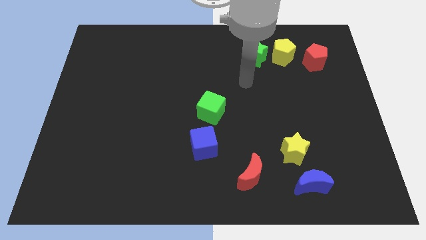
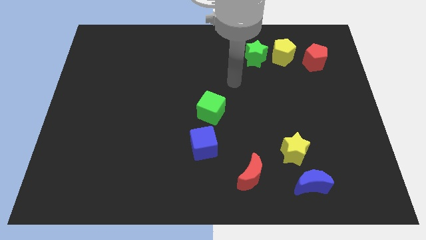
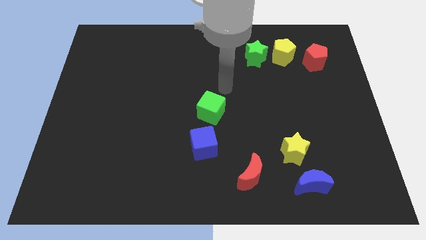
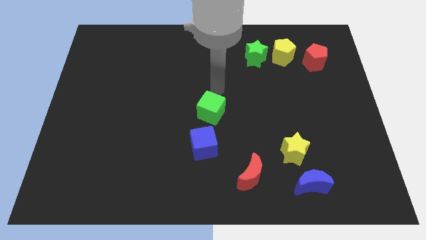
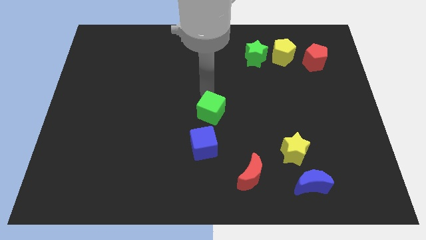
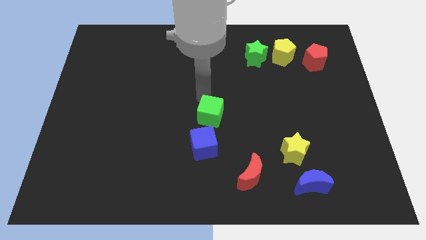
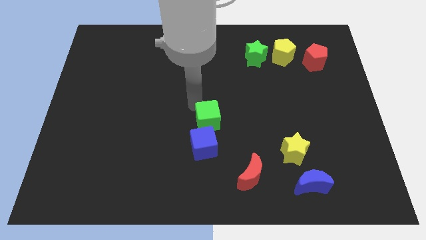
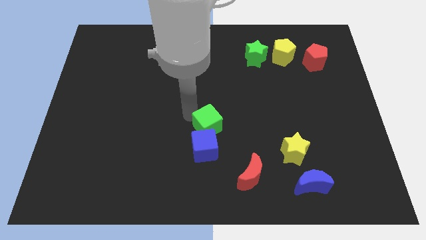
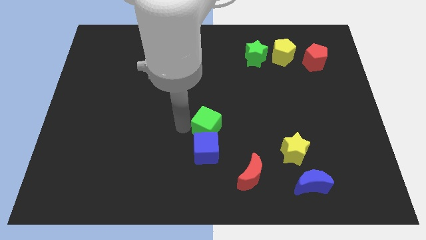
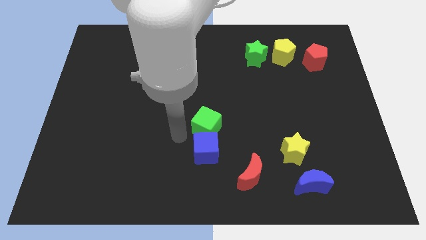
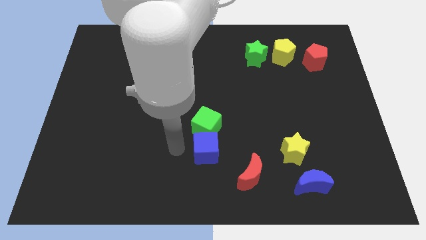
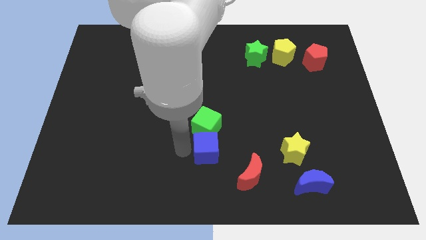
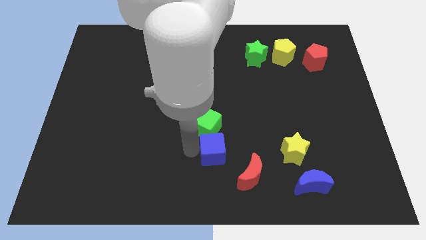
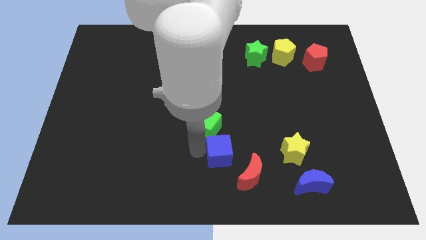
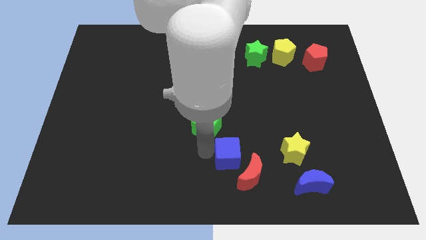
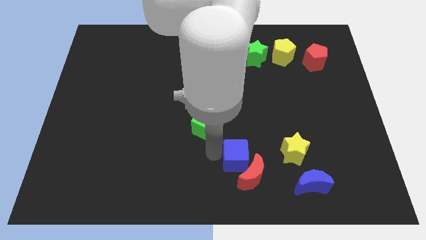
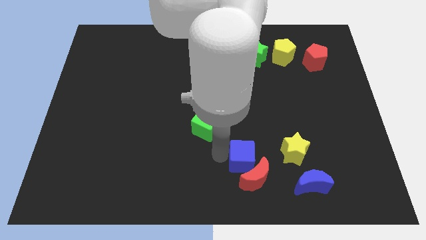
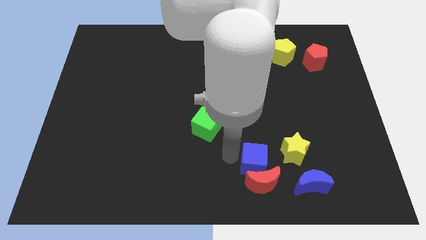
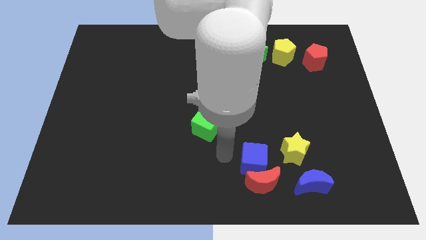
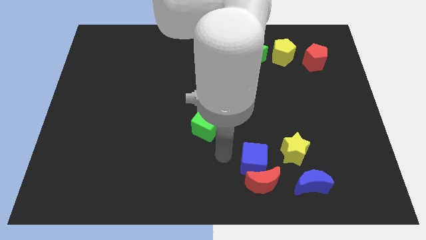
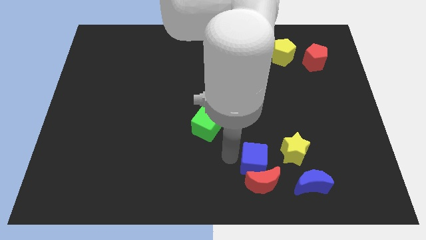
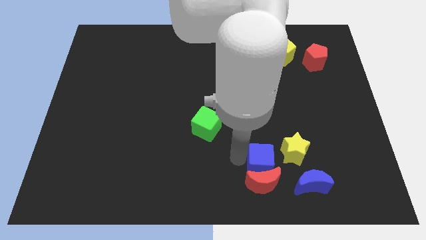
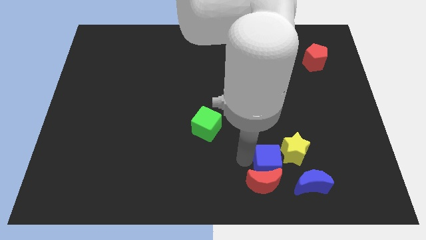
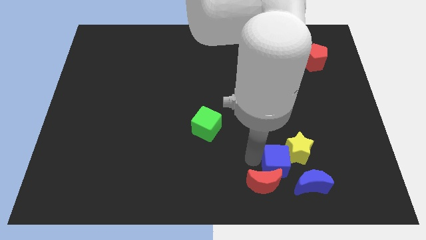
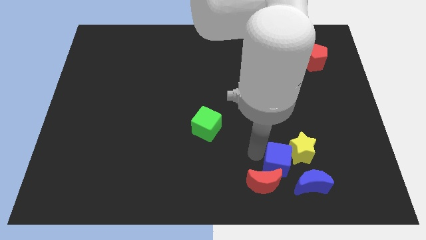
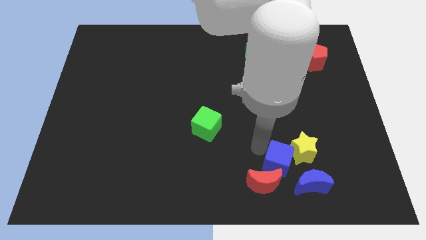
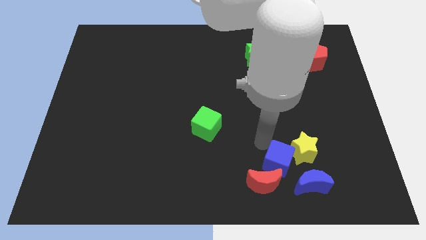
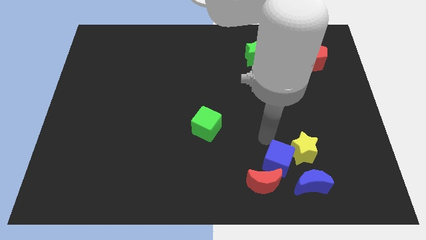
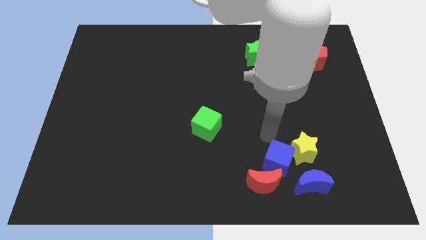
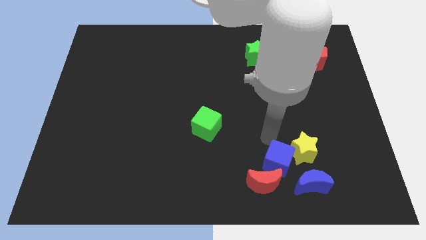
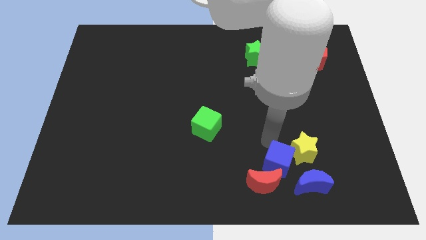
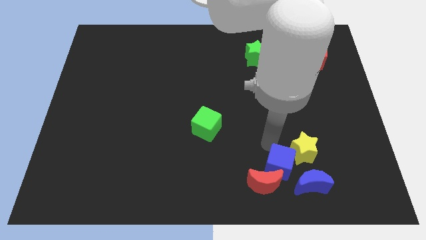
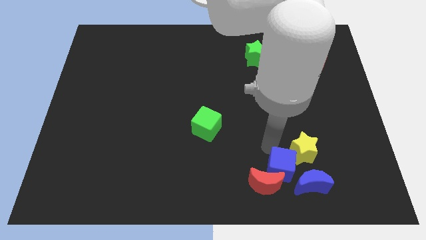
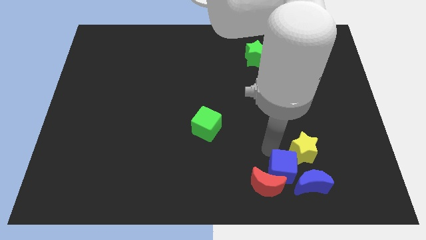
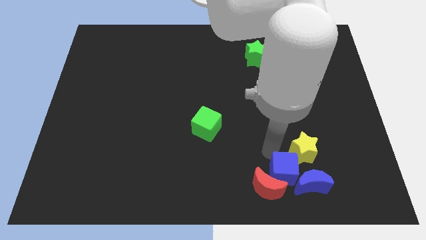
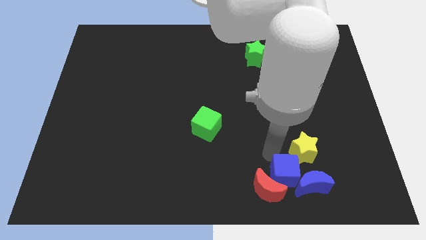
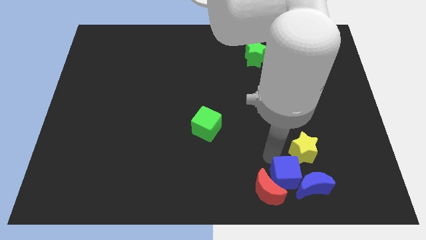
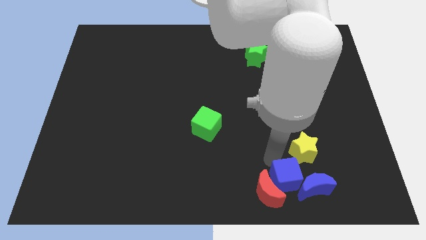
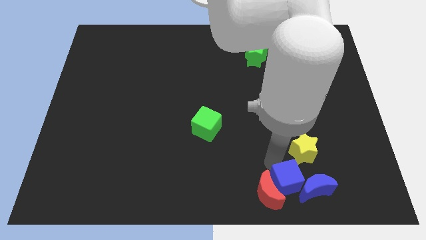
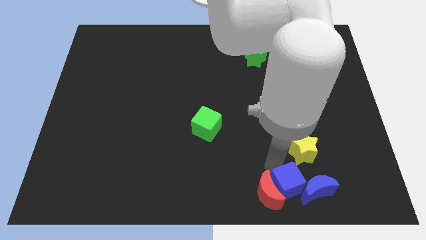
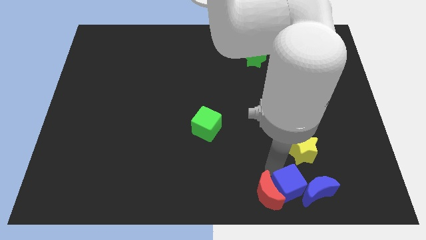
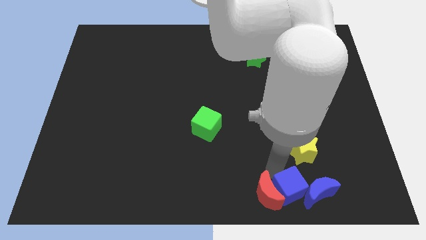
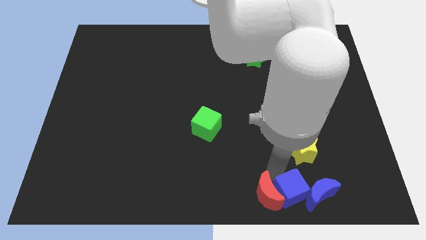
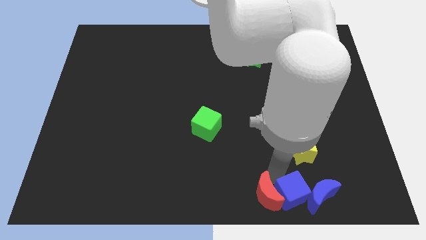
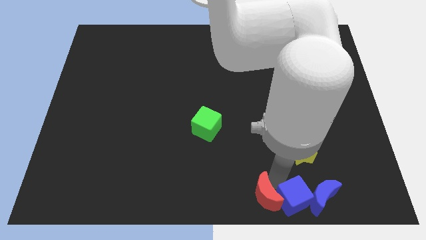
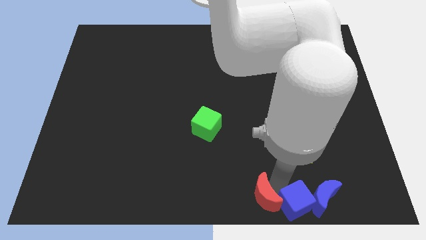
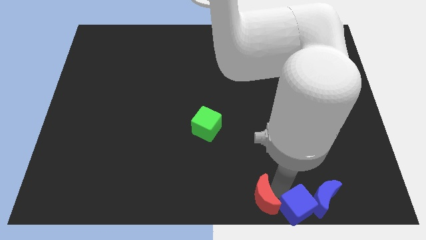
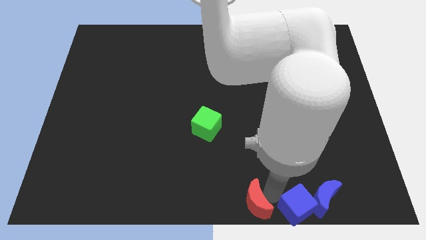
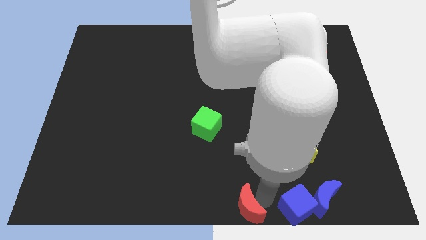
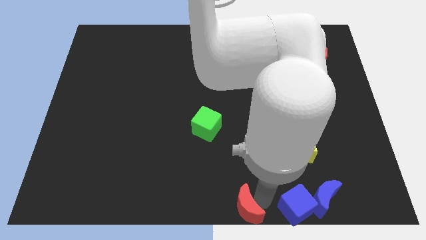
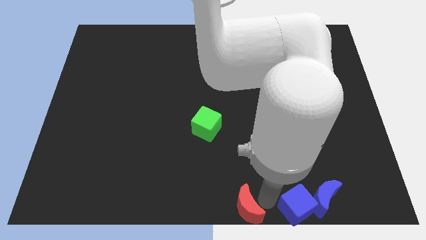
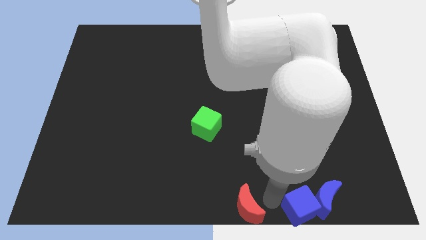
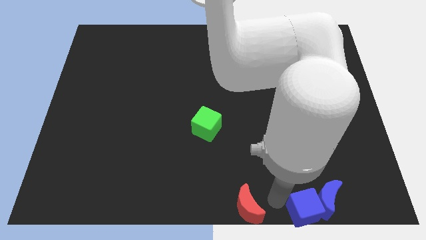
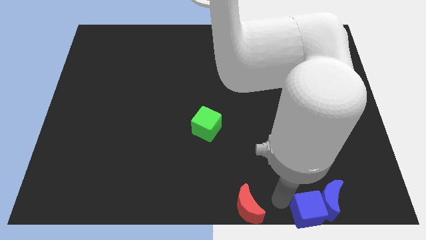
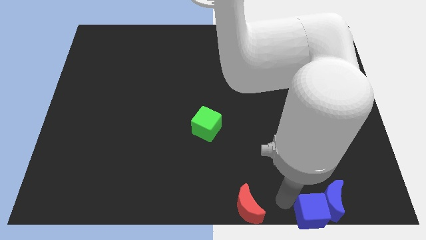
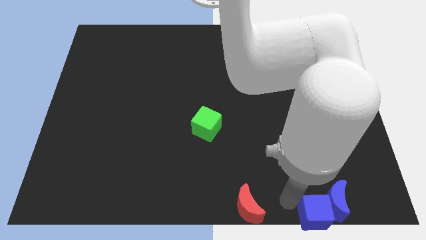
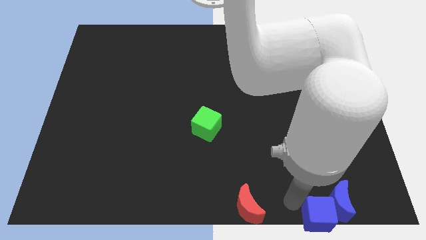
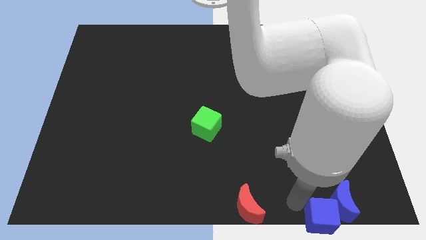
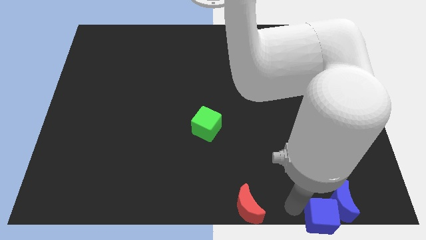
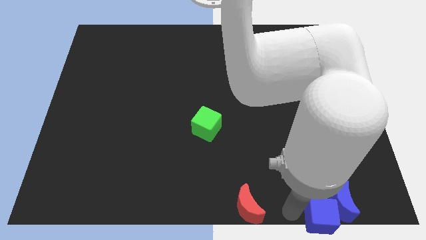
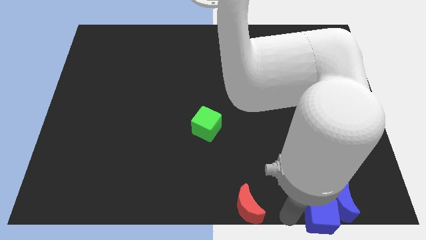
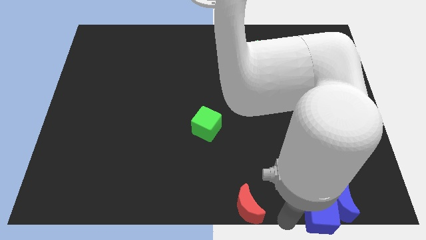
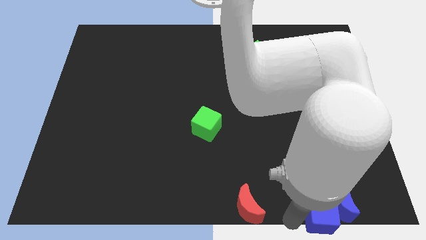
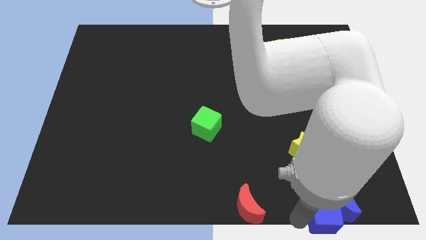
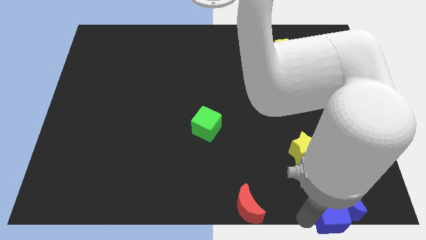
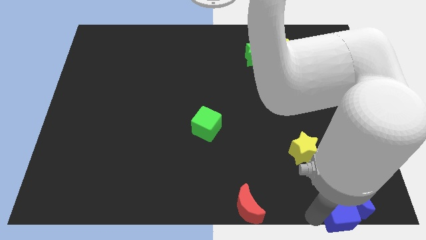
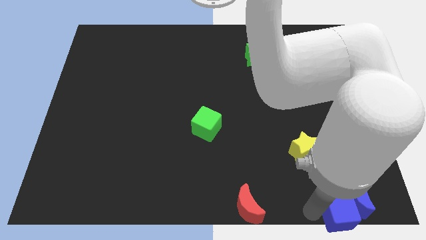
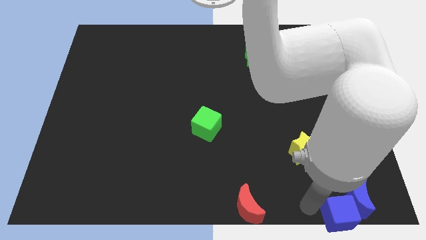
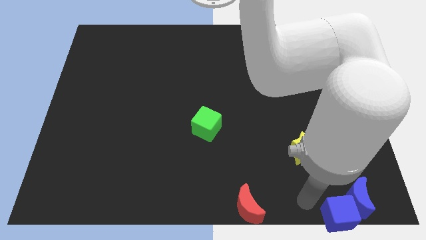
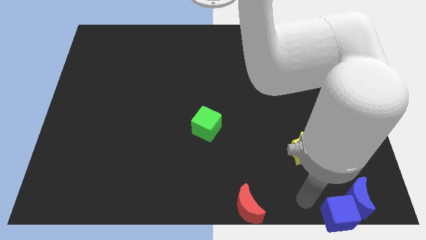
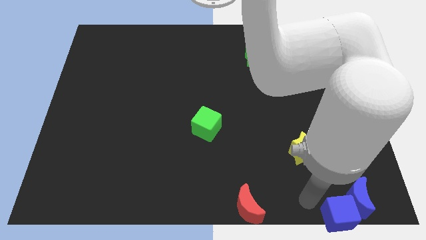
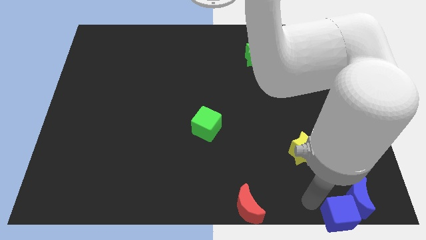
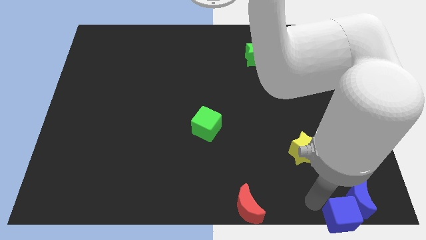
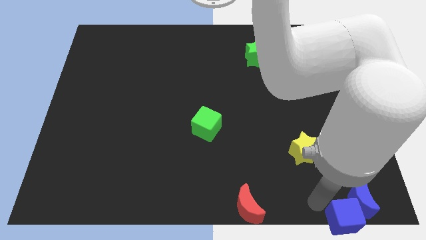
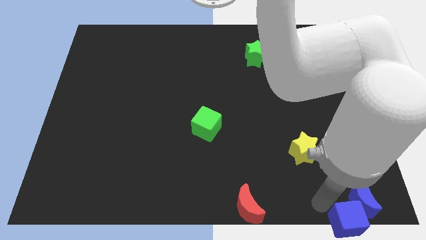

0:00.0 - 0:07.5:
push the blue cube to the lower right corner
